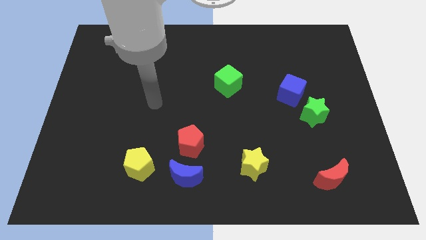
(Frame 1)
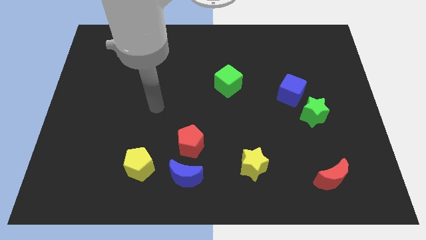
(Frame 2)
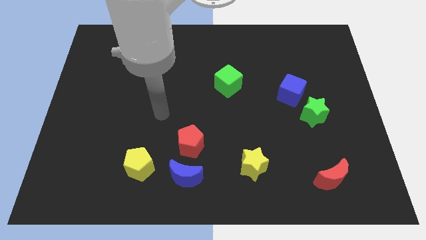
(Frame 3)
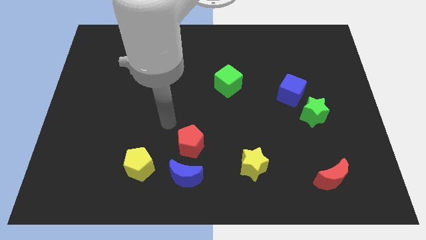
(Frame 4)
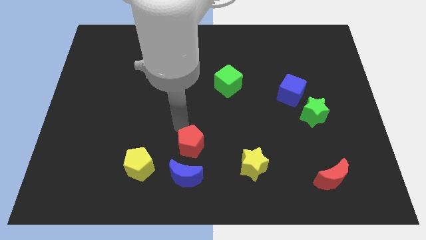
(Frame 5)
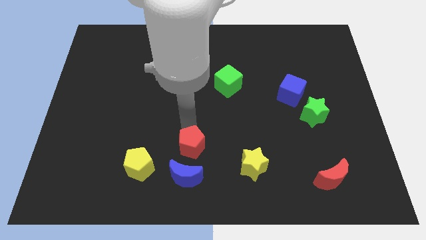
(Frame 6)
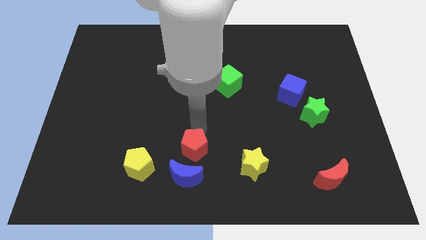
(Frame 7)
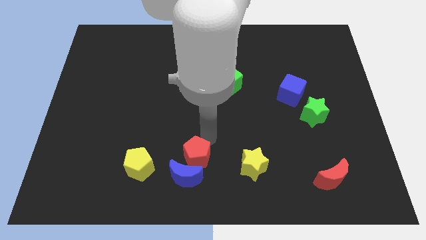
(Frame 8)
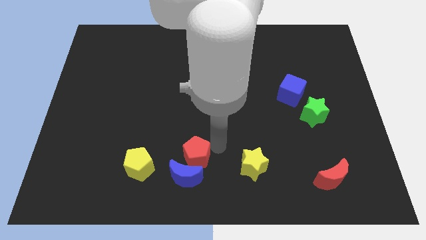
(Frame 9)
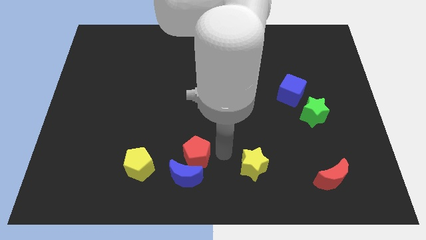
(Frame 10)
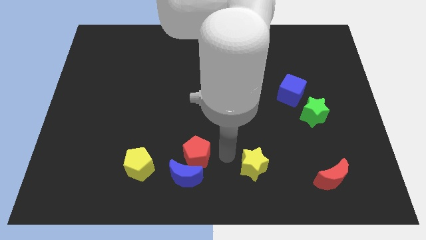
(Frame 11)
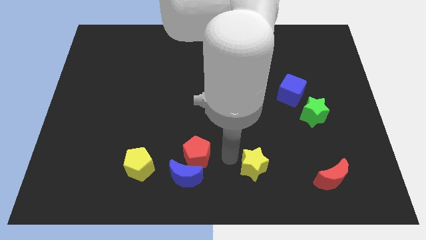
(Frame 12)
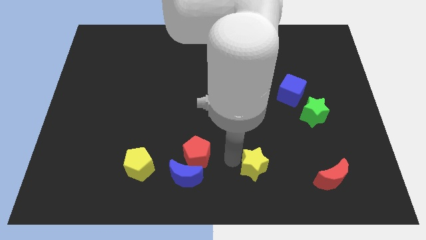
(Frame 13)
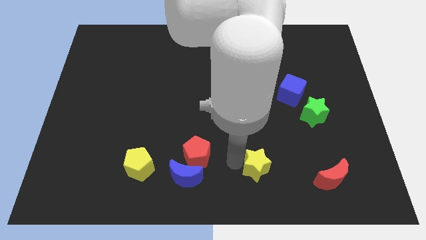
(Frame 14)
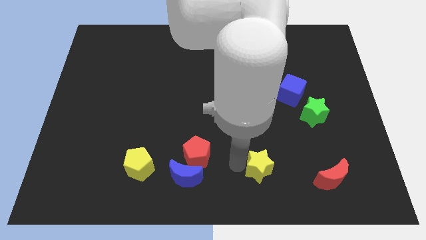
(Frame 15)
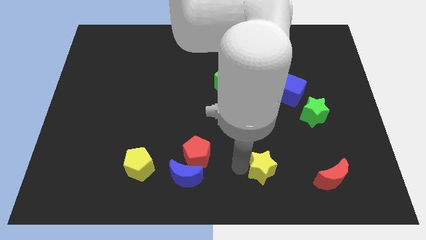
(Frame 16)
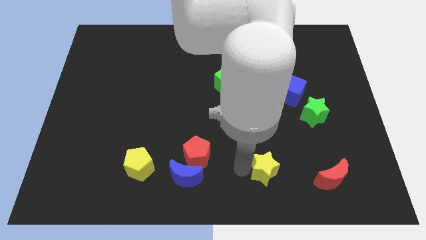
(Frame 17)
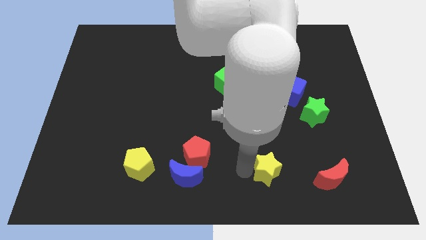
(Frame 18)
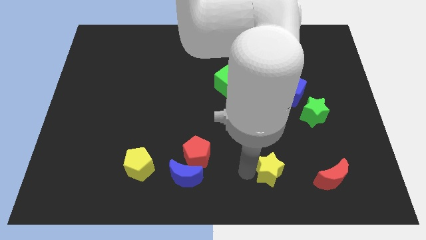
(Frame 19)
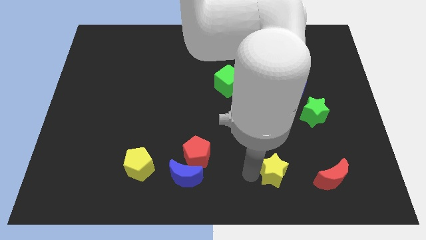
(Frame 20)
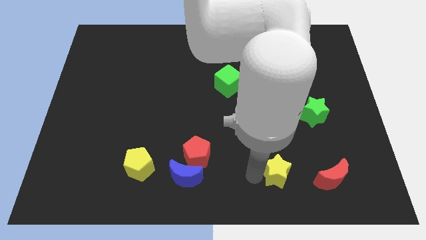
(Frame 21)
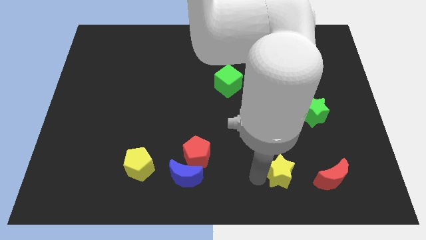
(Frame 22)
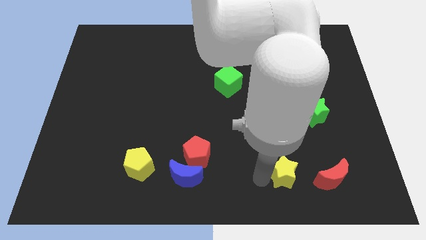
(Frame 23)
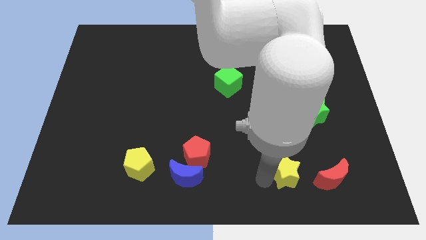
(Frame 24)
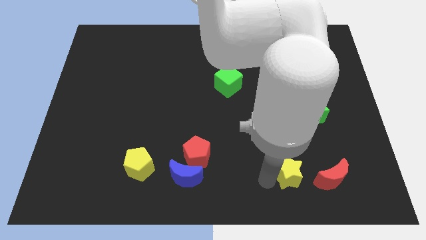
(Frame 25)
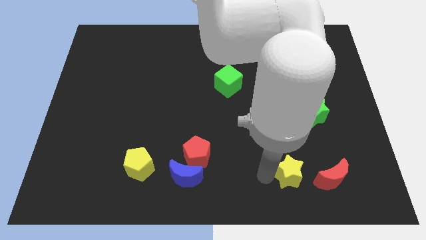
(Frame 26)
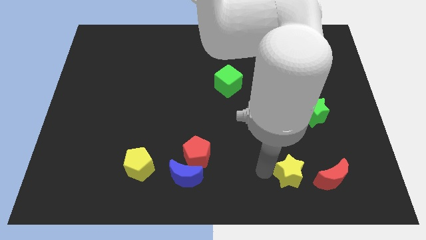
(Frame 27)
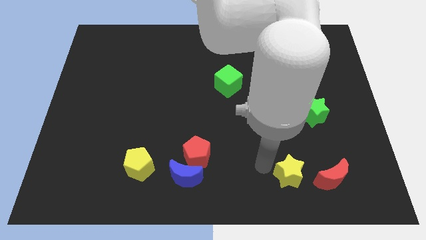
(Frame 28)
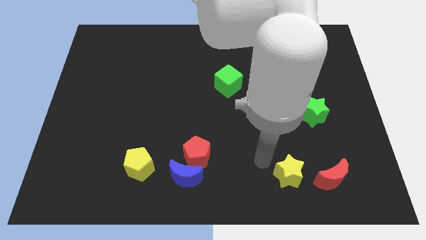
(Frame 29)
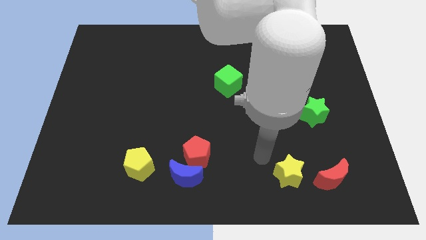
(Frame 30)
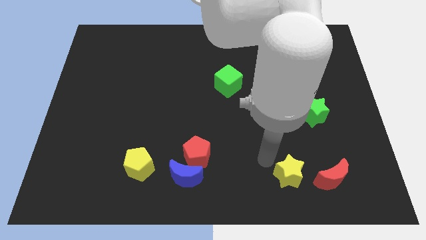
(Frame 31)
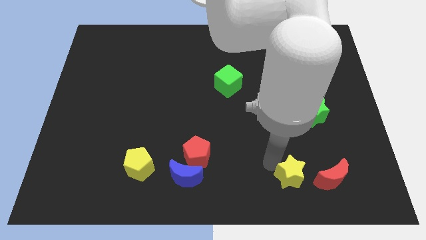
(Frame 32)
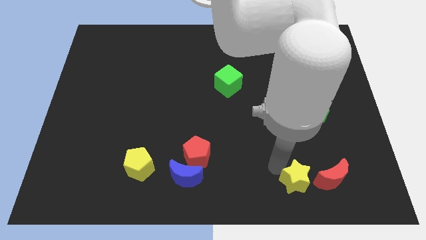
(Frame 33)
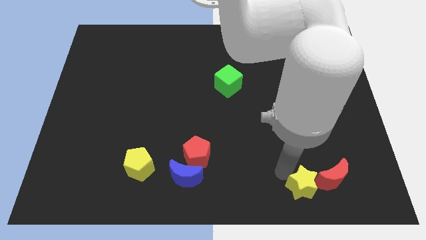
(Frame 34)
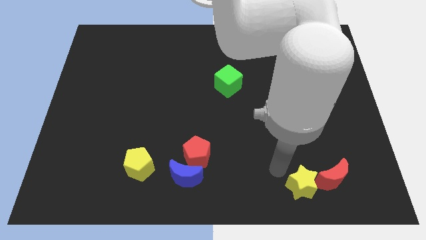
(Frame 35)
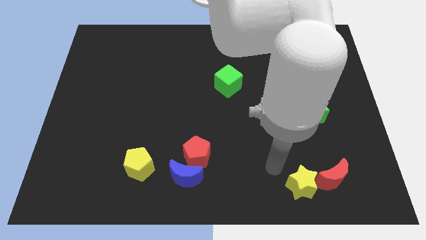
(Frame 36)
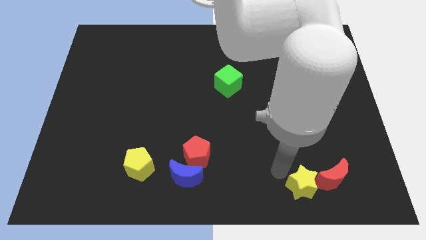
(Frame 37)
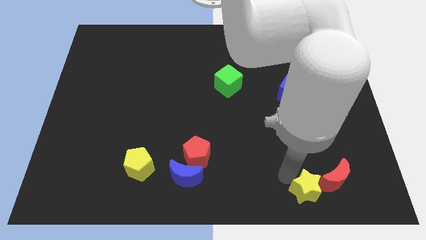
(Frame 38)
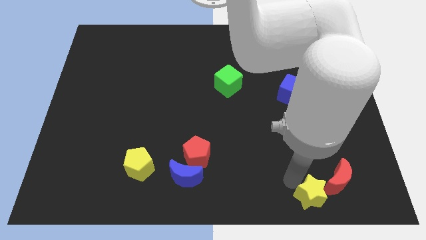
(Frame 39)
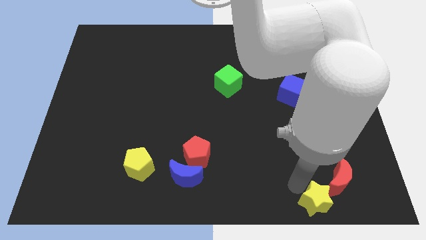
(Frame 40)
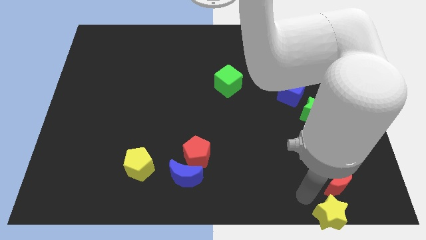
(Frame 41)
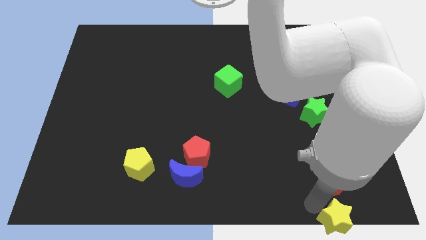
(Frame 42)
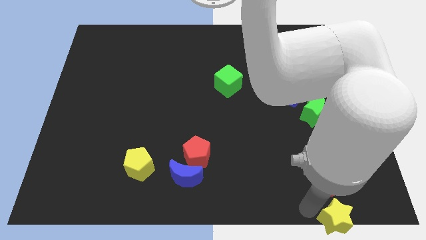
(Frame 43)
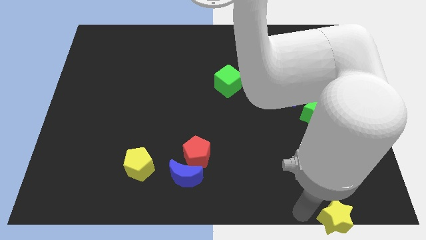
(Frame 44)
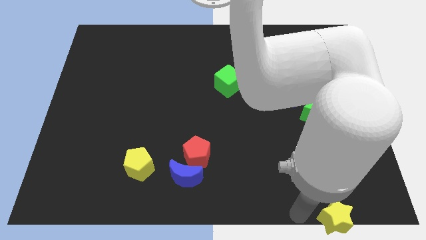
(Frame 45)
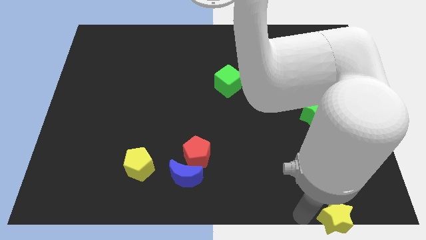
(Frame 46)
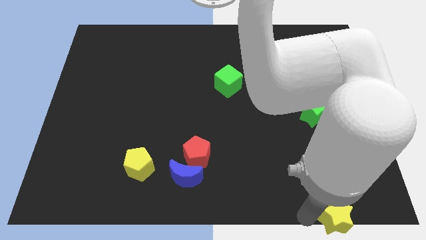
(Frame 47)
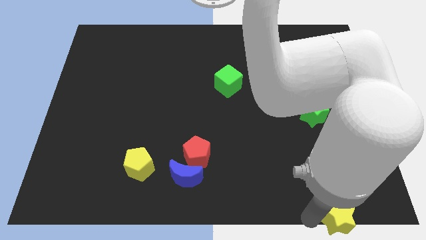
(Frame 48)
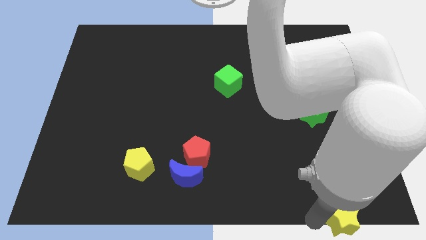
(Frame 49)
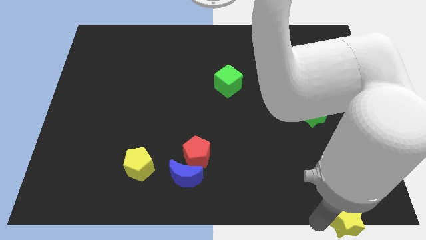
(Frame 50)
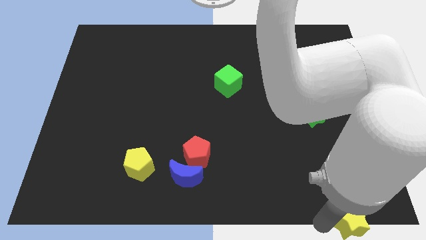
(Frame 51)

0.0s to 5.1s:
put the yellow star to the bottom right
